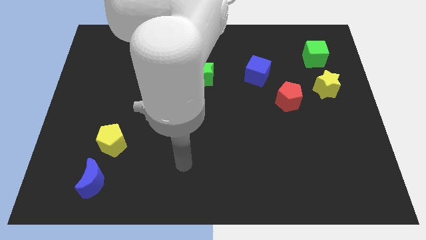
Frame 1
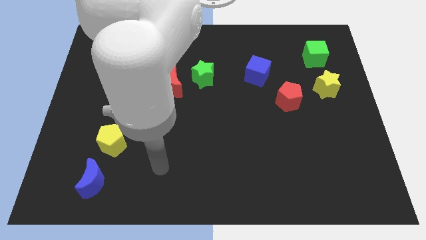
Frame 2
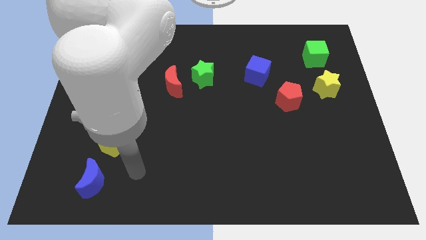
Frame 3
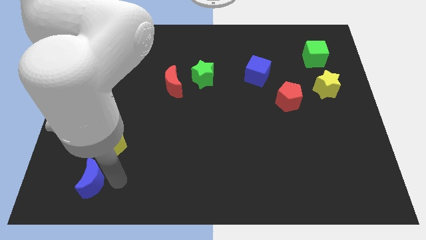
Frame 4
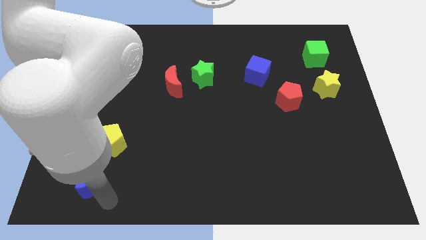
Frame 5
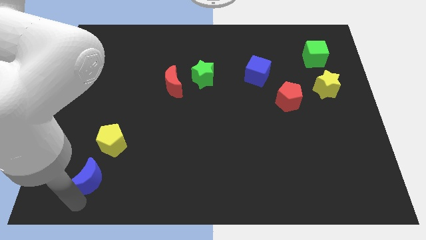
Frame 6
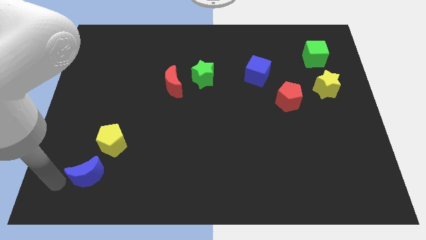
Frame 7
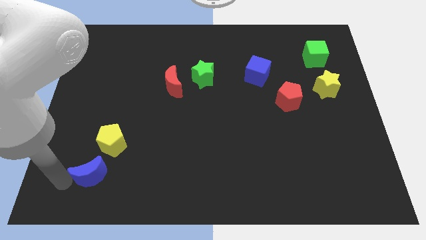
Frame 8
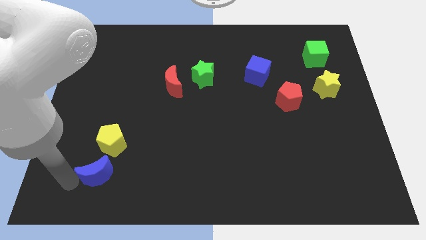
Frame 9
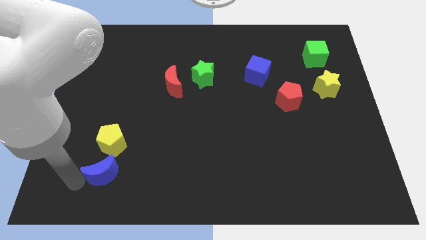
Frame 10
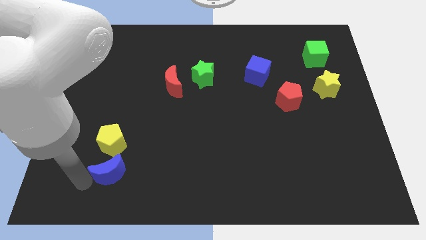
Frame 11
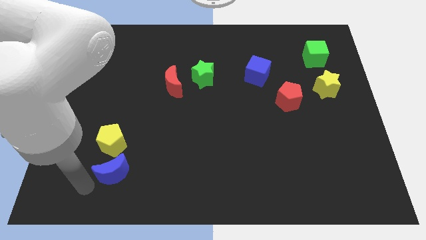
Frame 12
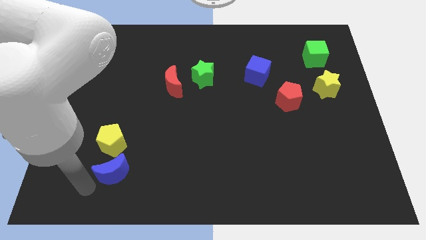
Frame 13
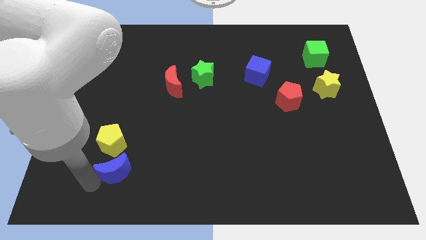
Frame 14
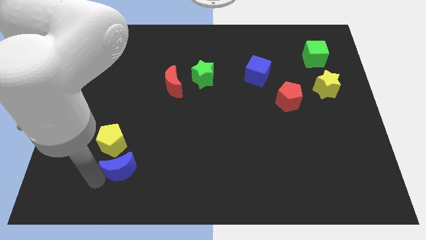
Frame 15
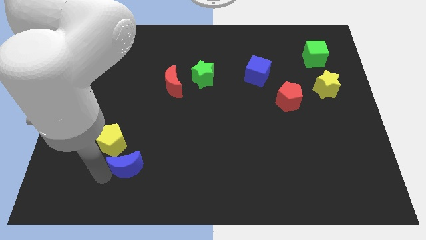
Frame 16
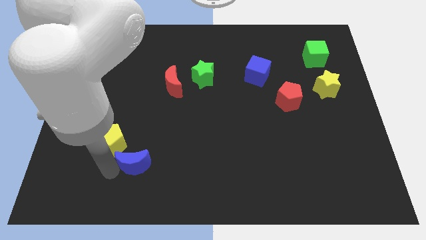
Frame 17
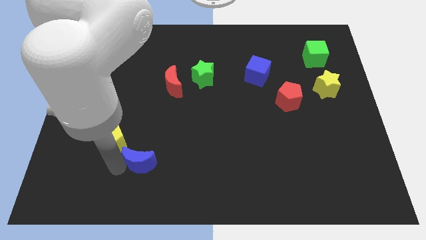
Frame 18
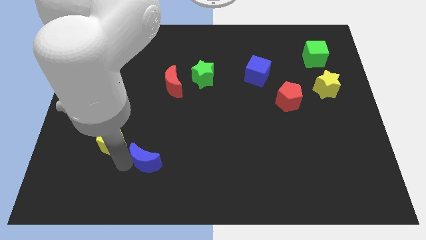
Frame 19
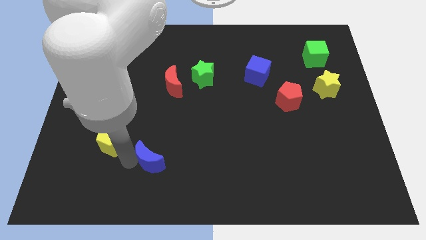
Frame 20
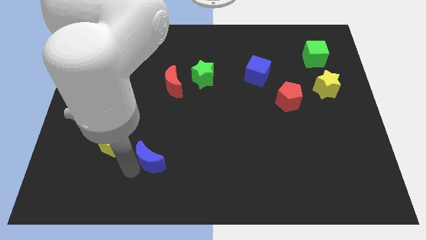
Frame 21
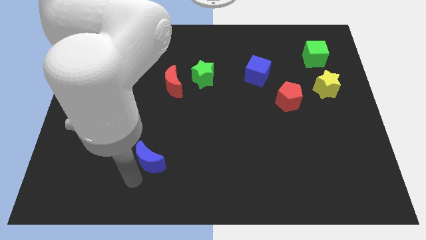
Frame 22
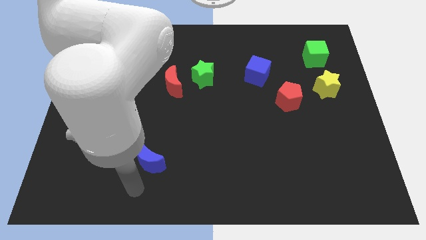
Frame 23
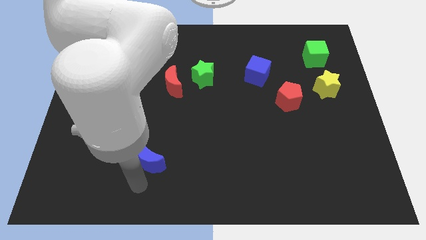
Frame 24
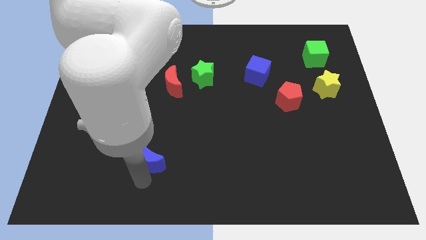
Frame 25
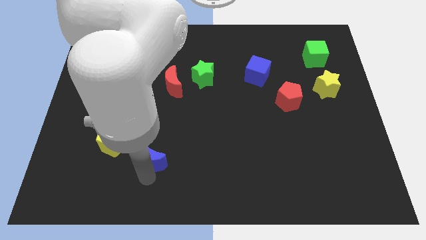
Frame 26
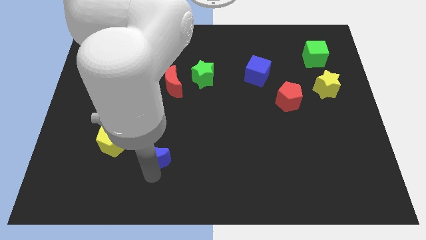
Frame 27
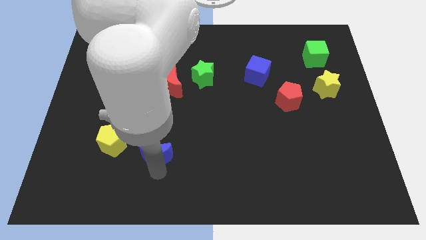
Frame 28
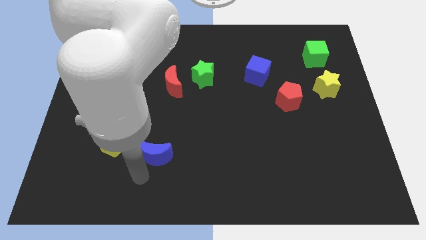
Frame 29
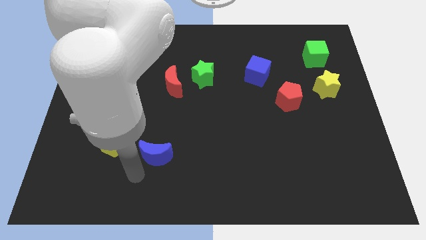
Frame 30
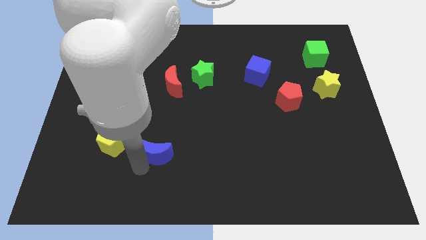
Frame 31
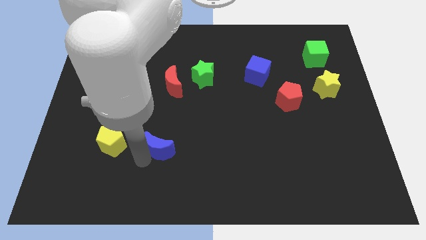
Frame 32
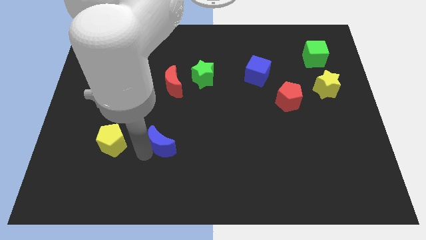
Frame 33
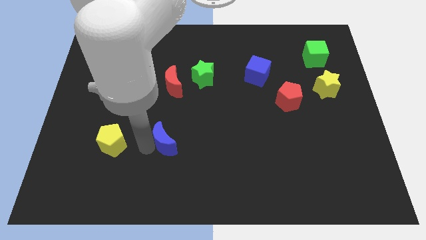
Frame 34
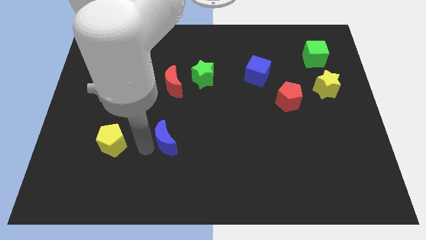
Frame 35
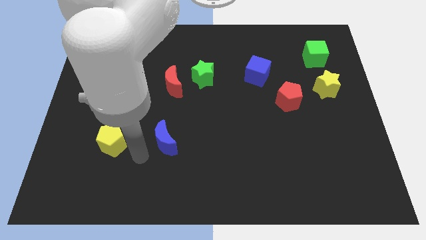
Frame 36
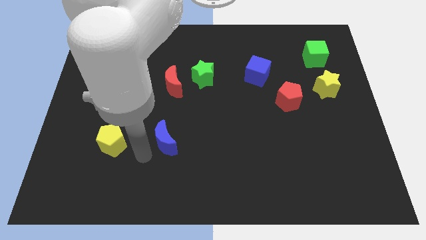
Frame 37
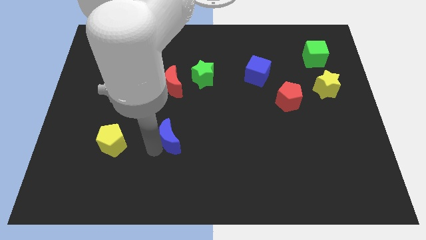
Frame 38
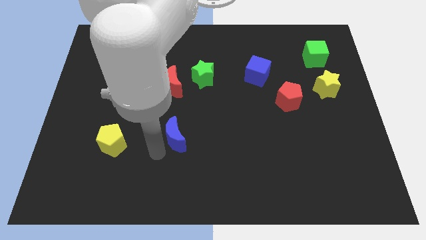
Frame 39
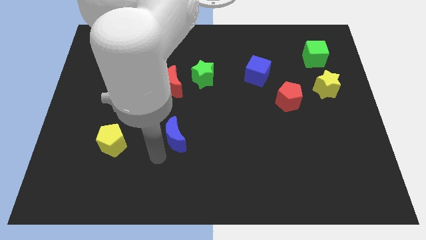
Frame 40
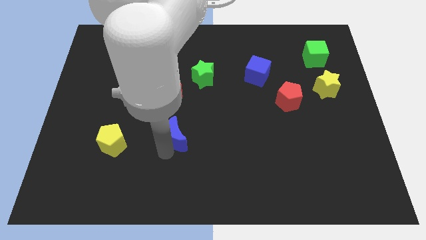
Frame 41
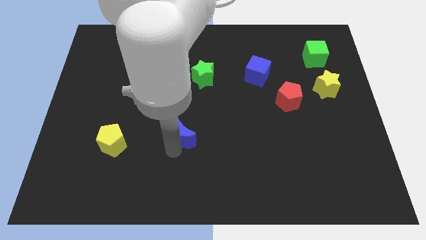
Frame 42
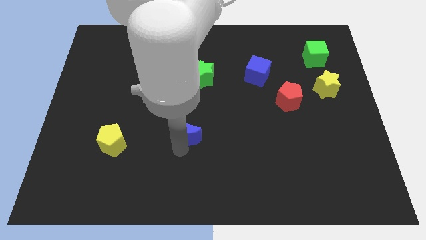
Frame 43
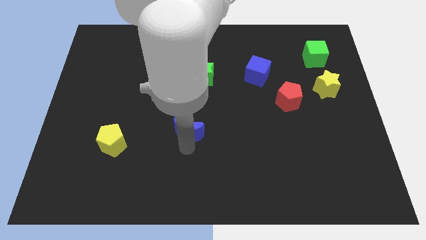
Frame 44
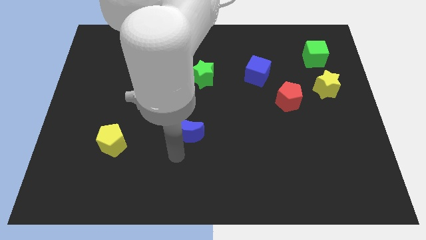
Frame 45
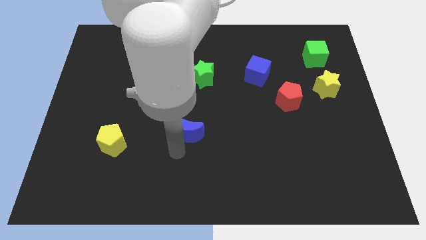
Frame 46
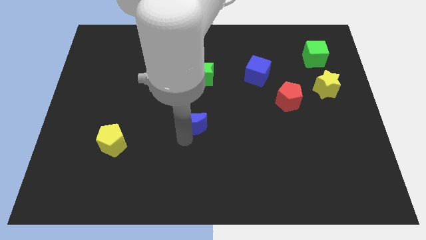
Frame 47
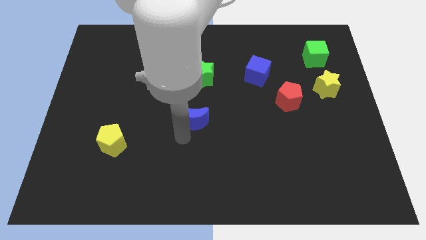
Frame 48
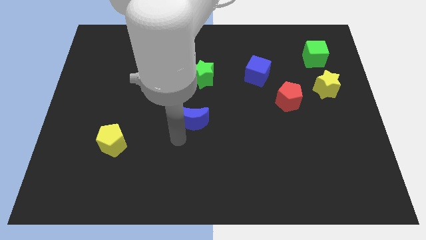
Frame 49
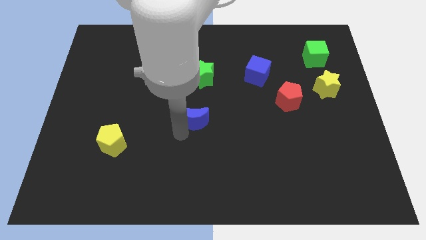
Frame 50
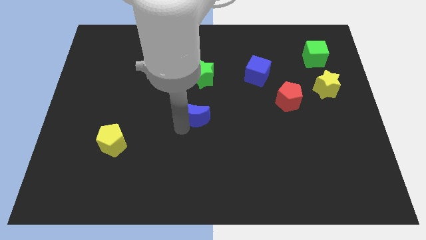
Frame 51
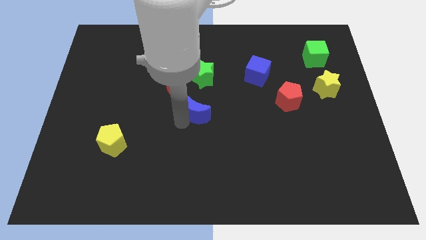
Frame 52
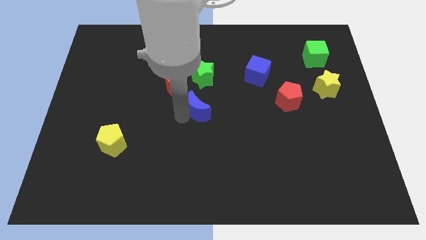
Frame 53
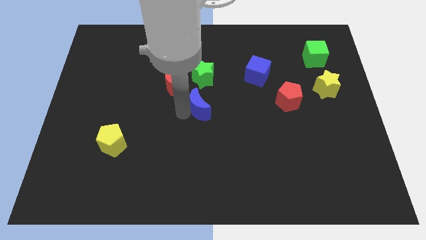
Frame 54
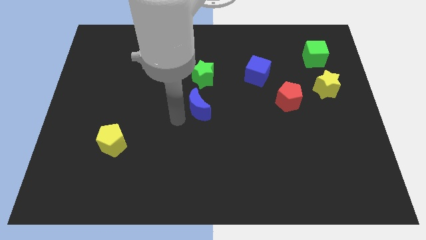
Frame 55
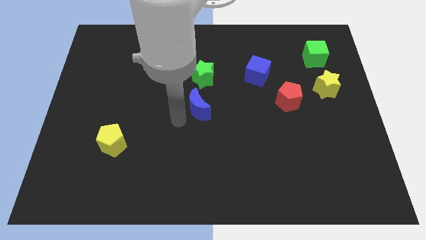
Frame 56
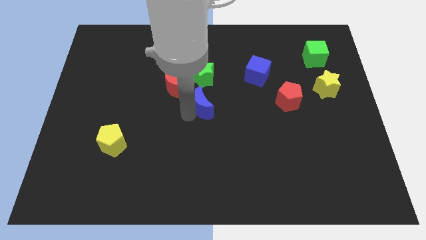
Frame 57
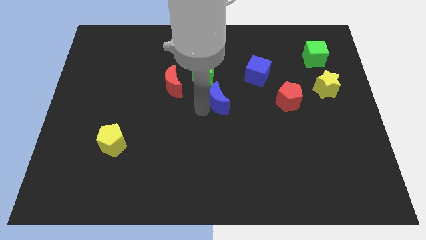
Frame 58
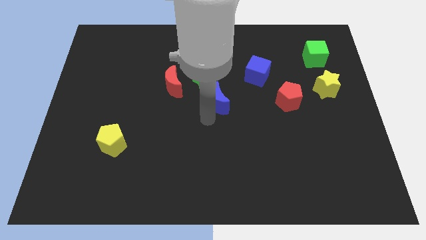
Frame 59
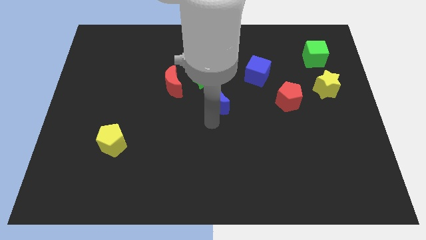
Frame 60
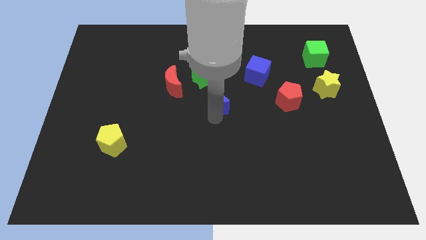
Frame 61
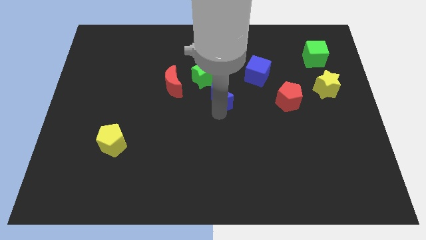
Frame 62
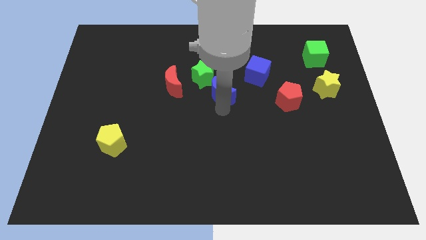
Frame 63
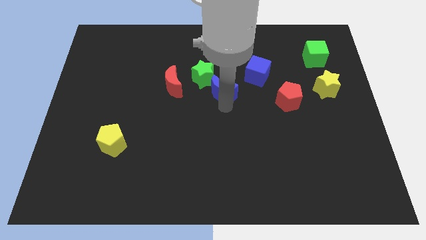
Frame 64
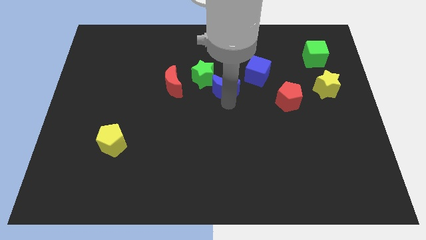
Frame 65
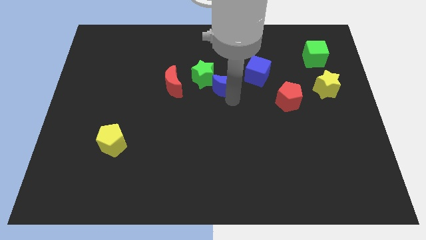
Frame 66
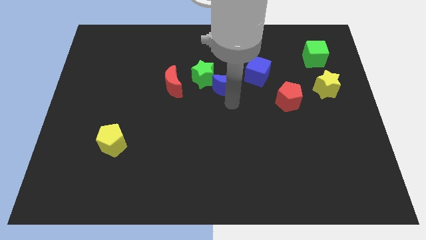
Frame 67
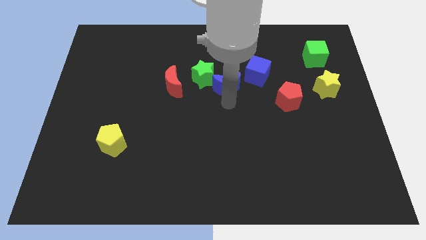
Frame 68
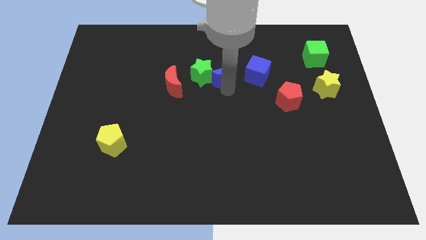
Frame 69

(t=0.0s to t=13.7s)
slide the blue moon to the top right of the green star
